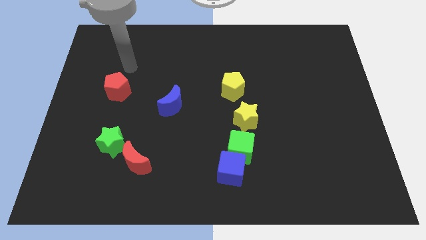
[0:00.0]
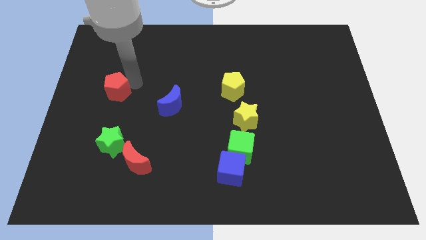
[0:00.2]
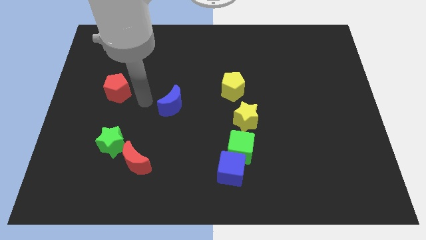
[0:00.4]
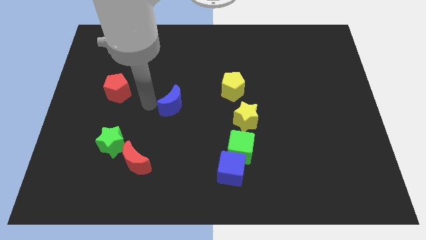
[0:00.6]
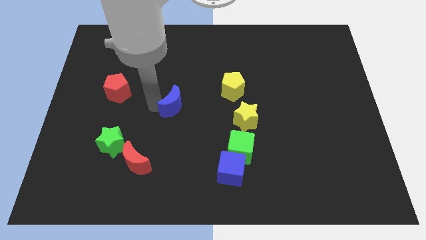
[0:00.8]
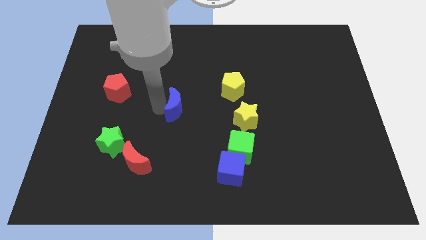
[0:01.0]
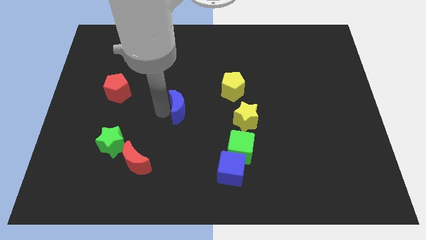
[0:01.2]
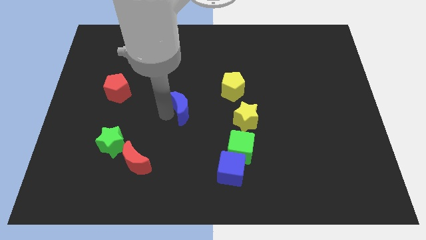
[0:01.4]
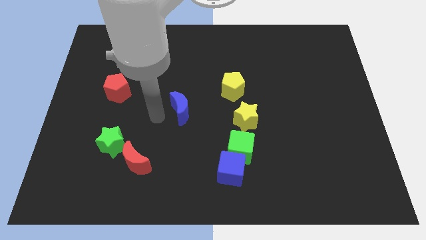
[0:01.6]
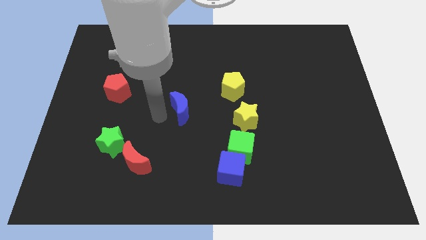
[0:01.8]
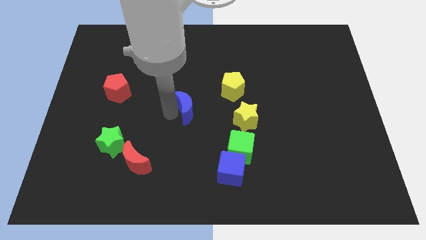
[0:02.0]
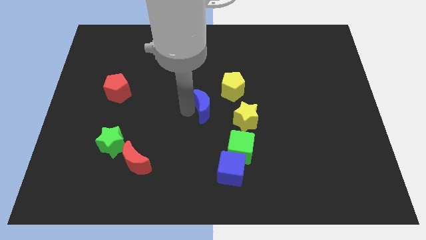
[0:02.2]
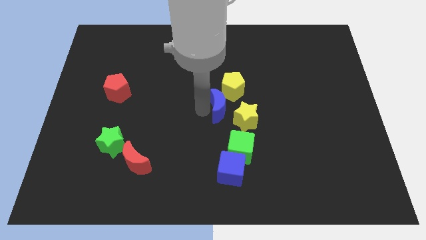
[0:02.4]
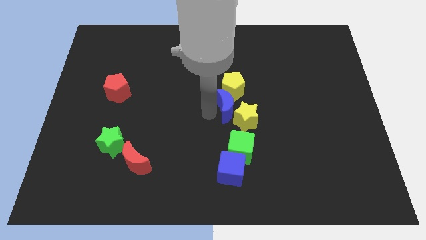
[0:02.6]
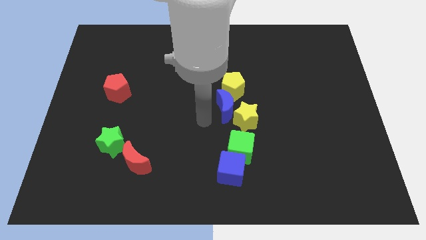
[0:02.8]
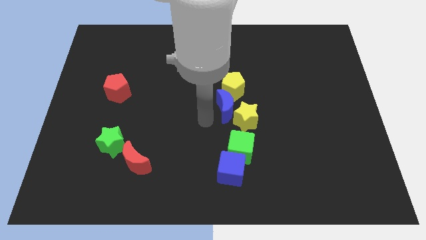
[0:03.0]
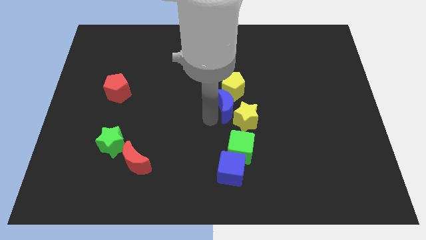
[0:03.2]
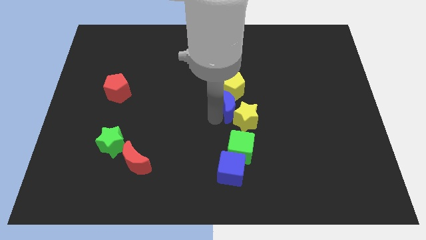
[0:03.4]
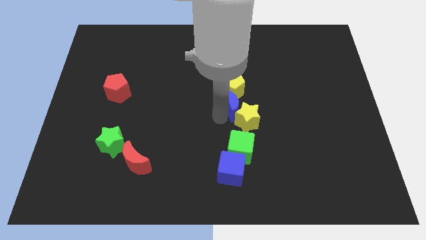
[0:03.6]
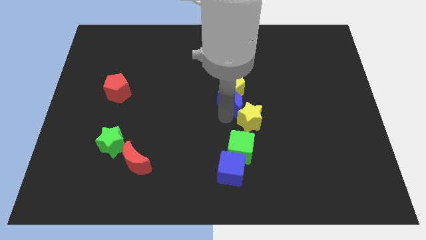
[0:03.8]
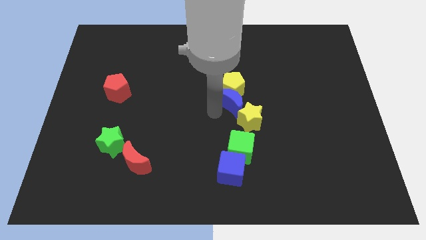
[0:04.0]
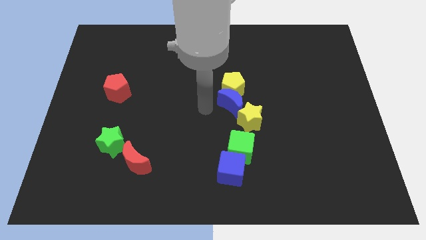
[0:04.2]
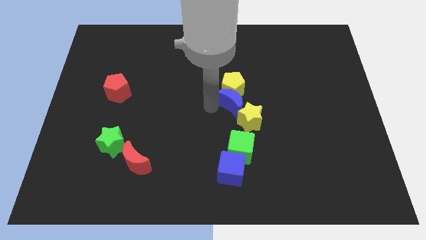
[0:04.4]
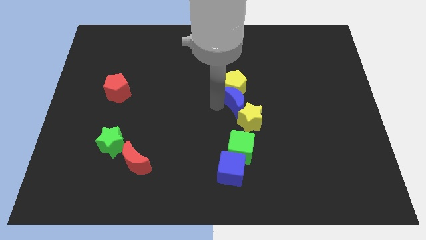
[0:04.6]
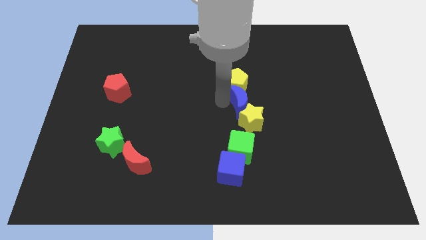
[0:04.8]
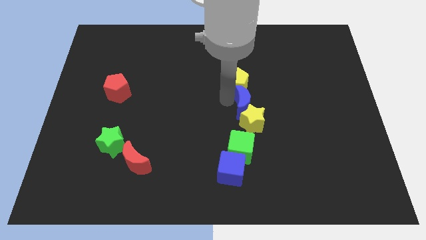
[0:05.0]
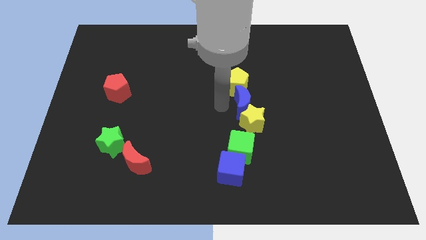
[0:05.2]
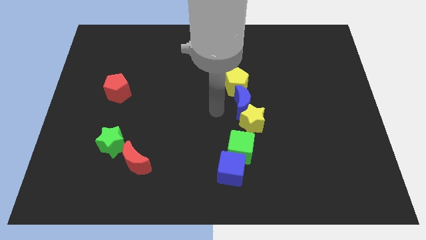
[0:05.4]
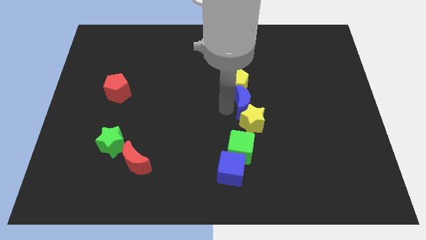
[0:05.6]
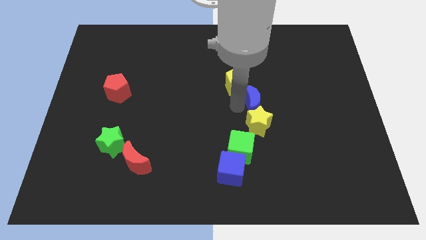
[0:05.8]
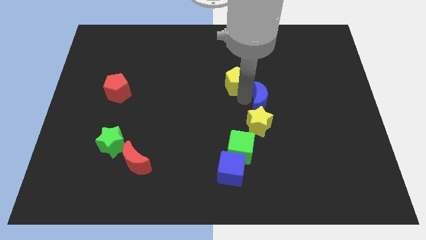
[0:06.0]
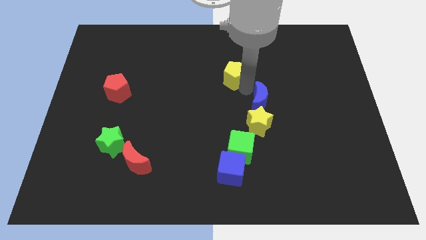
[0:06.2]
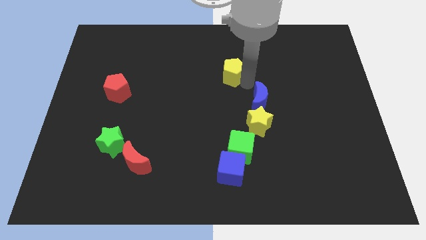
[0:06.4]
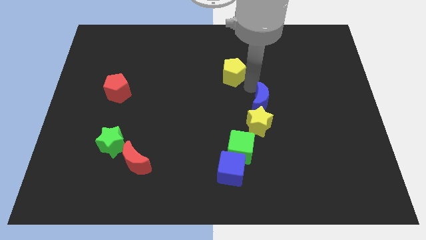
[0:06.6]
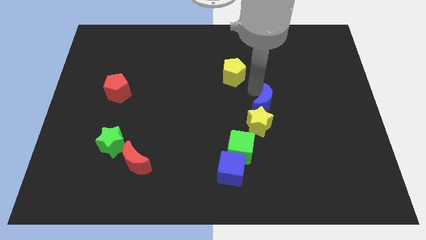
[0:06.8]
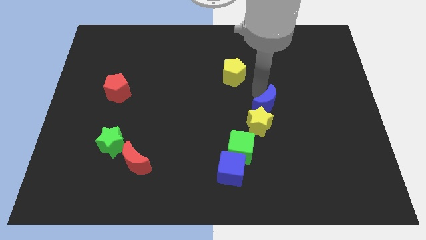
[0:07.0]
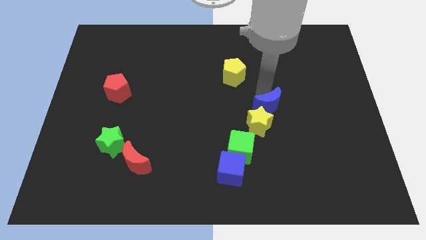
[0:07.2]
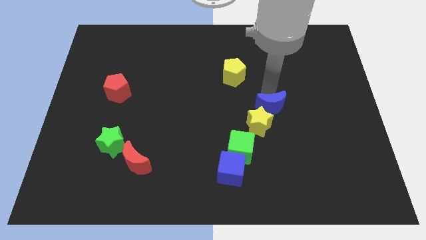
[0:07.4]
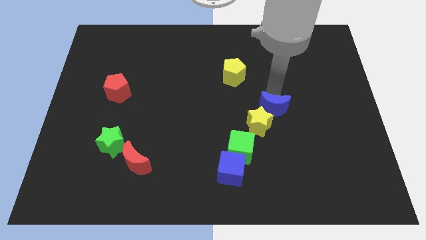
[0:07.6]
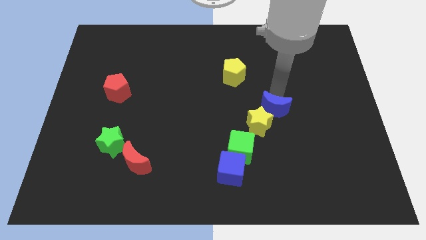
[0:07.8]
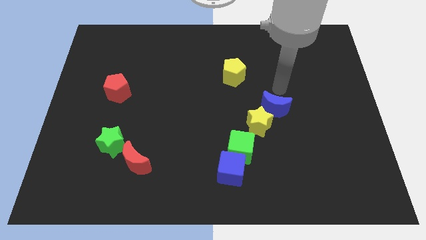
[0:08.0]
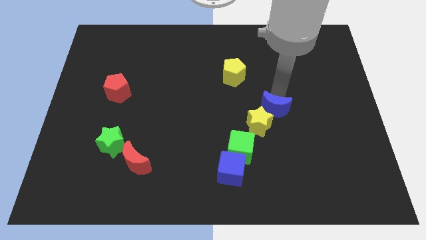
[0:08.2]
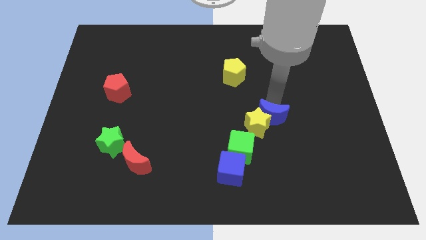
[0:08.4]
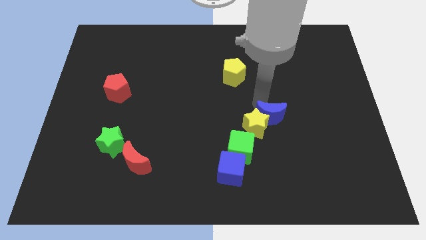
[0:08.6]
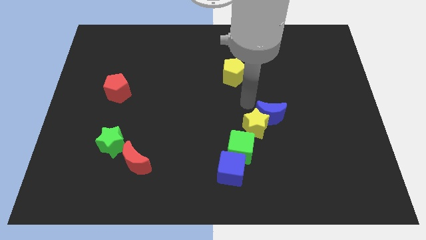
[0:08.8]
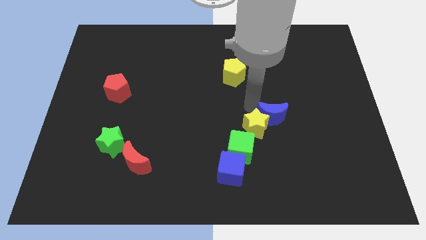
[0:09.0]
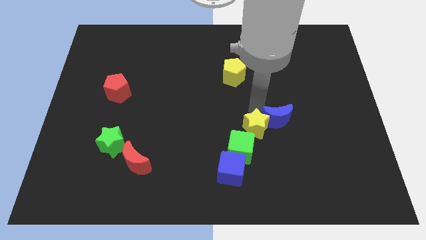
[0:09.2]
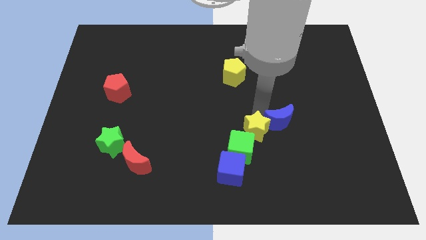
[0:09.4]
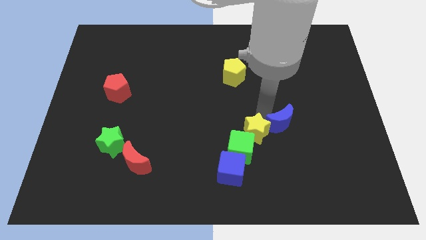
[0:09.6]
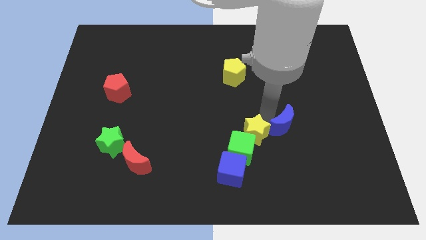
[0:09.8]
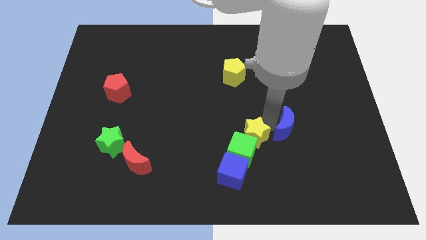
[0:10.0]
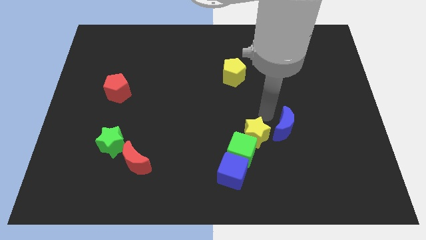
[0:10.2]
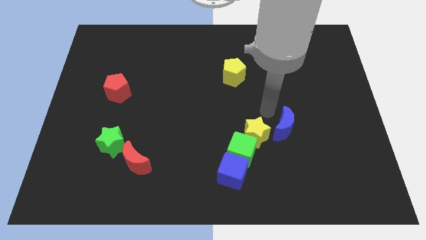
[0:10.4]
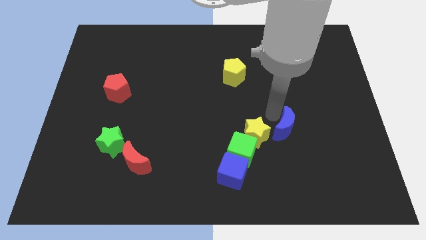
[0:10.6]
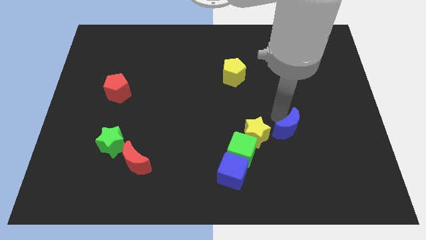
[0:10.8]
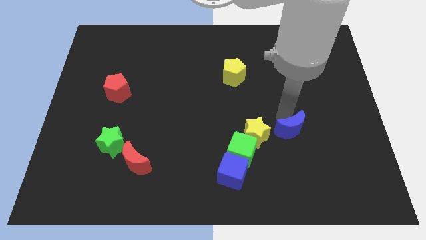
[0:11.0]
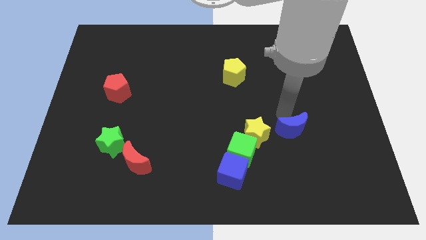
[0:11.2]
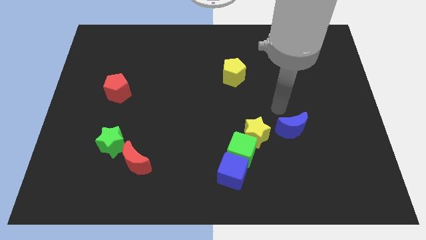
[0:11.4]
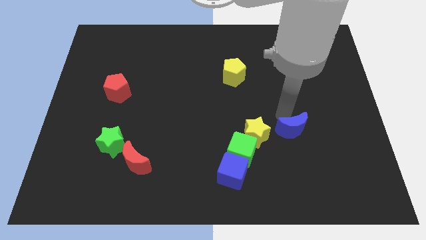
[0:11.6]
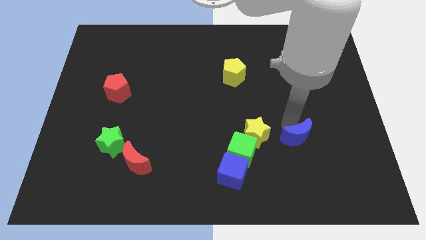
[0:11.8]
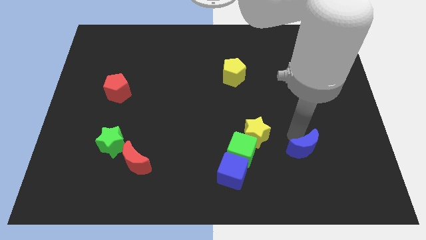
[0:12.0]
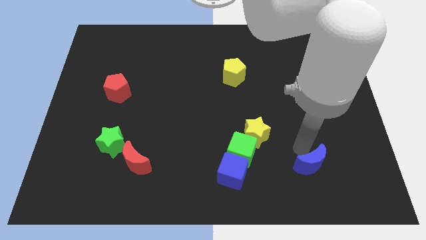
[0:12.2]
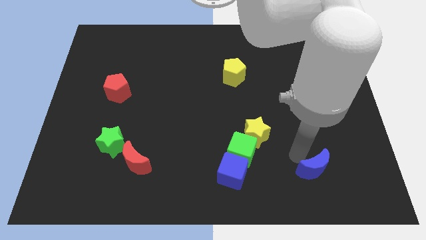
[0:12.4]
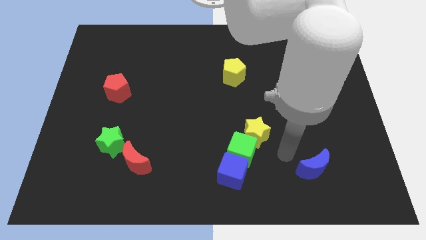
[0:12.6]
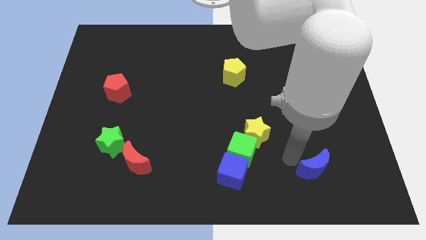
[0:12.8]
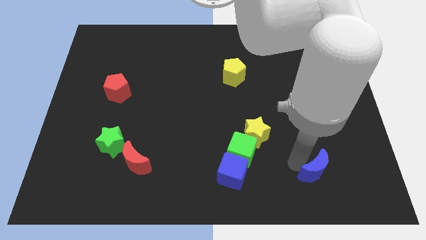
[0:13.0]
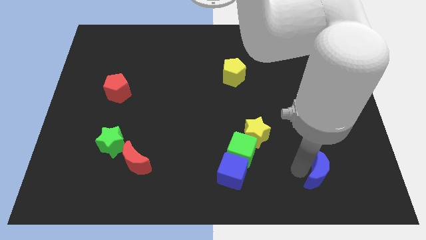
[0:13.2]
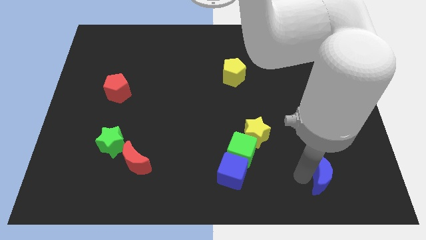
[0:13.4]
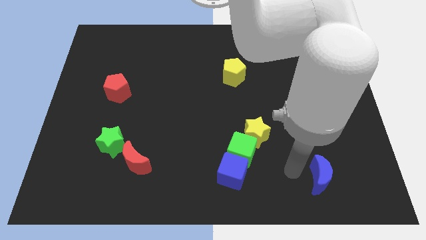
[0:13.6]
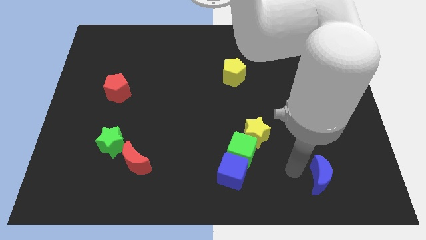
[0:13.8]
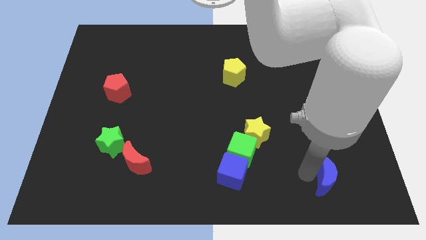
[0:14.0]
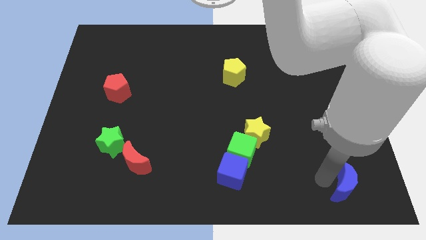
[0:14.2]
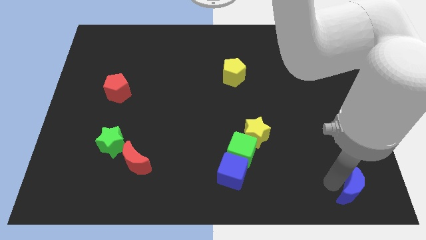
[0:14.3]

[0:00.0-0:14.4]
slide the blue moon to the lower right corner

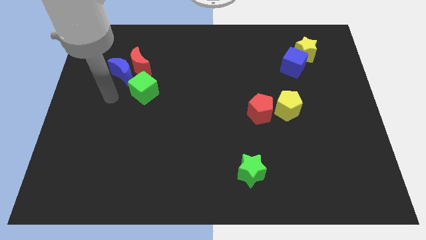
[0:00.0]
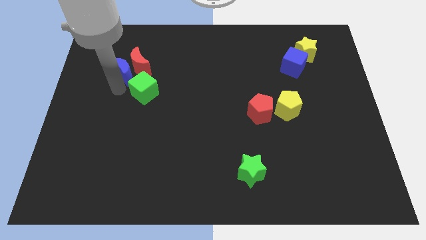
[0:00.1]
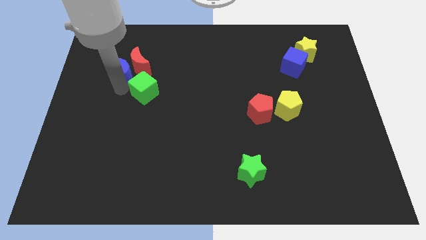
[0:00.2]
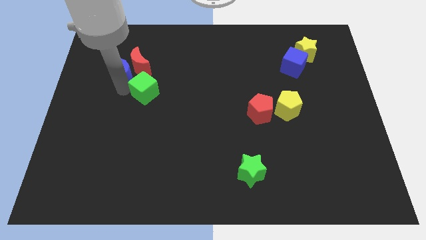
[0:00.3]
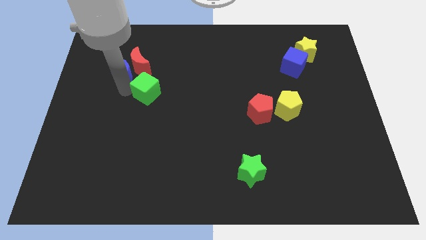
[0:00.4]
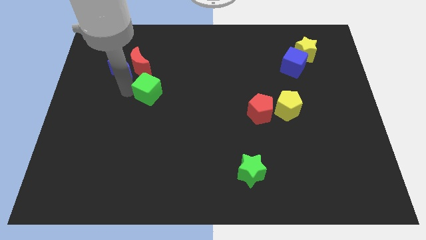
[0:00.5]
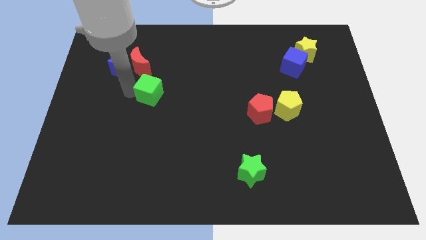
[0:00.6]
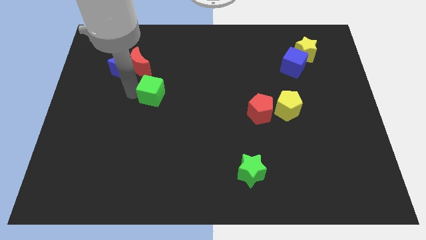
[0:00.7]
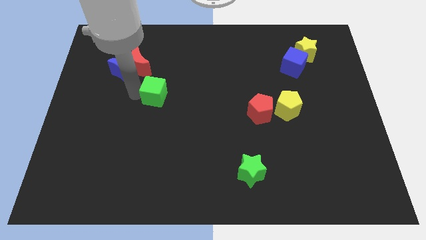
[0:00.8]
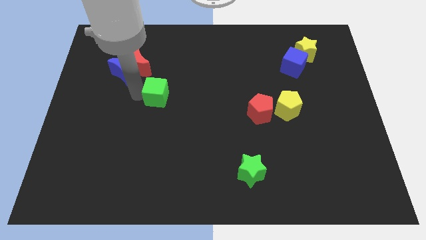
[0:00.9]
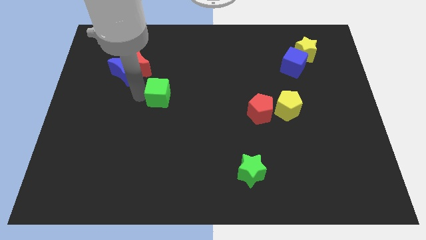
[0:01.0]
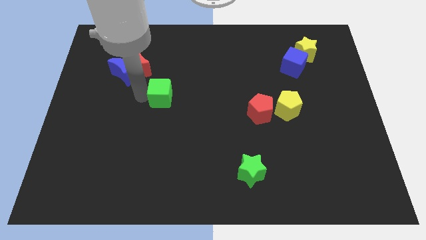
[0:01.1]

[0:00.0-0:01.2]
push the green cube to the middle
